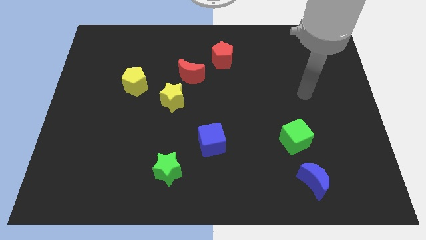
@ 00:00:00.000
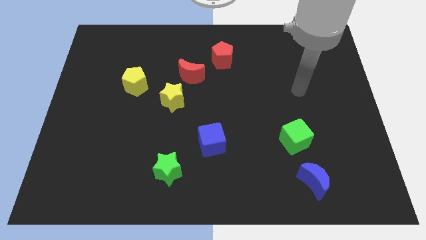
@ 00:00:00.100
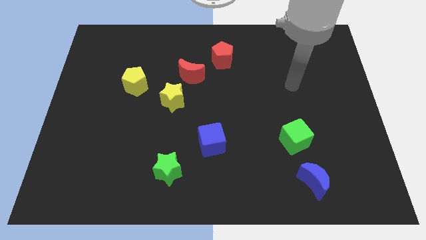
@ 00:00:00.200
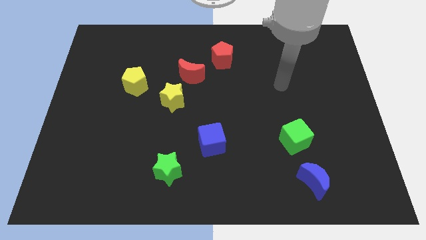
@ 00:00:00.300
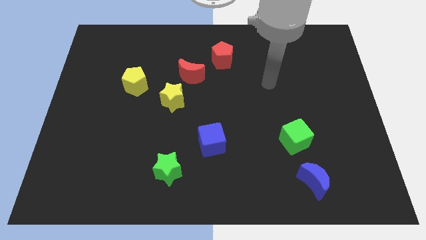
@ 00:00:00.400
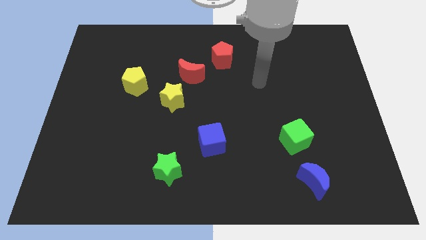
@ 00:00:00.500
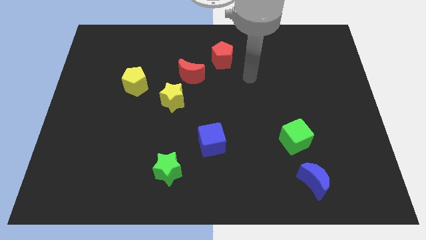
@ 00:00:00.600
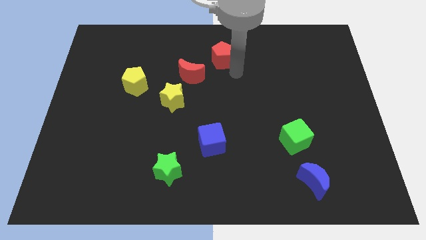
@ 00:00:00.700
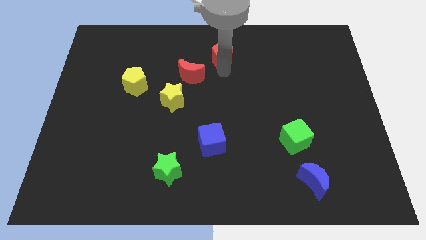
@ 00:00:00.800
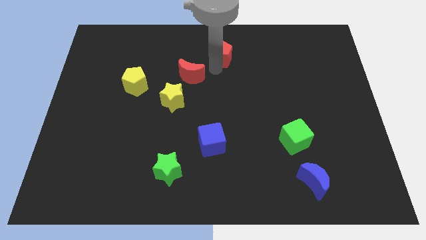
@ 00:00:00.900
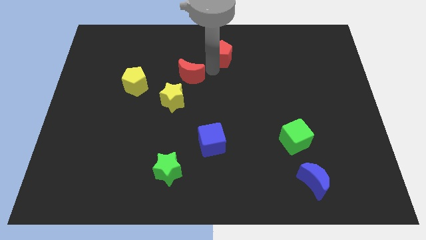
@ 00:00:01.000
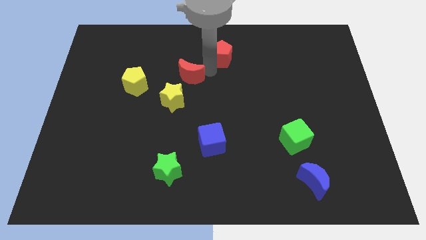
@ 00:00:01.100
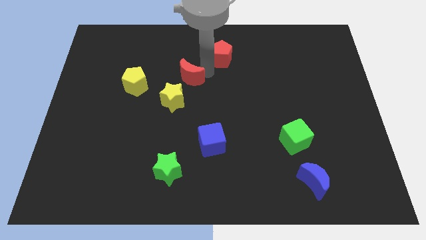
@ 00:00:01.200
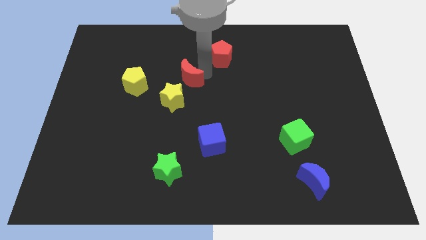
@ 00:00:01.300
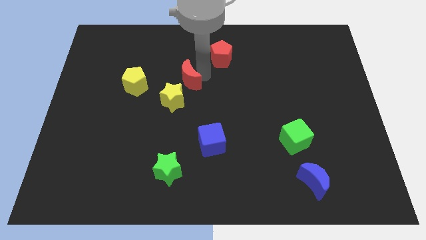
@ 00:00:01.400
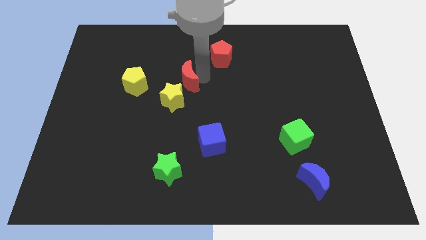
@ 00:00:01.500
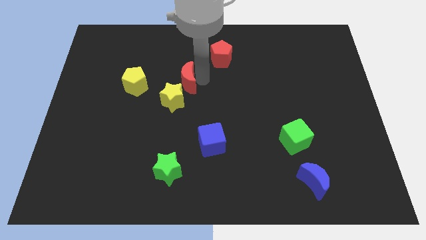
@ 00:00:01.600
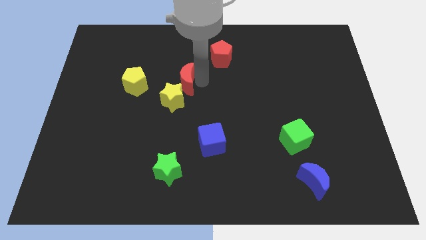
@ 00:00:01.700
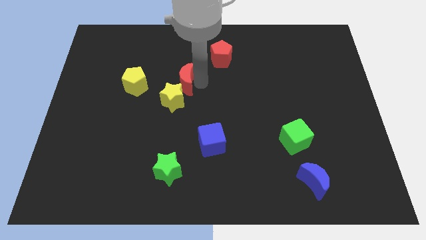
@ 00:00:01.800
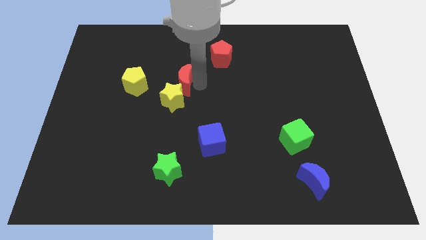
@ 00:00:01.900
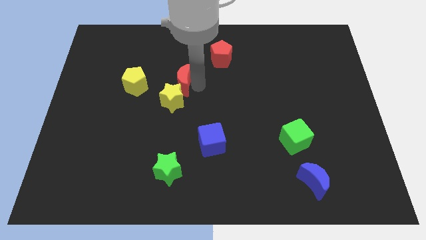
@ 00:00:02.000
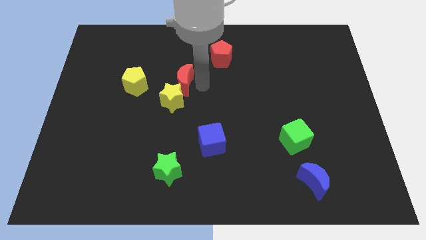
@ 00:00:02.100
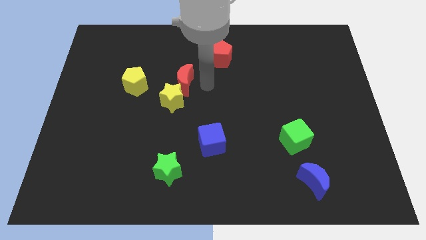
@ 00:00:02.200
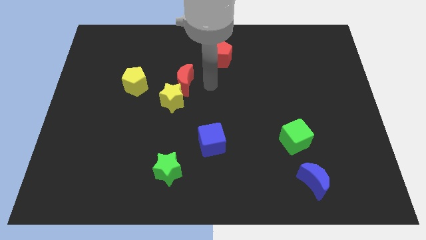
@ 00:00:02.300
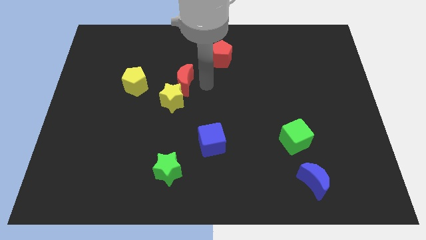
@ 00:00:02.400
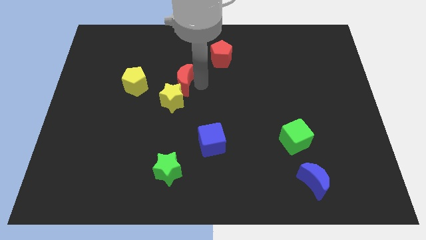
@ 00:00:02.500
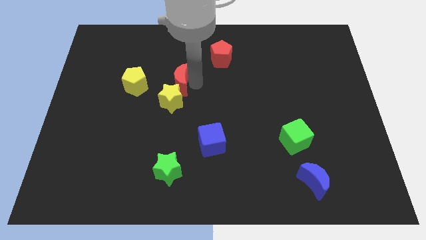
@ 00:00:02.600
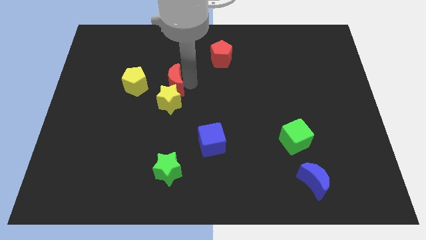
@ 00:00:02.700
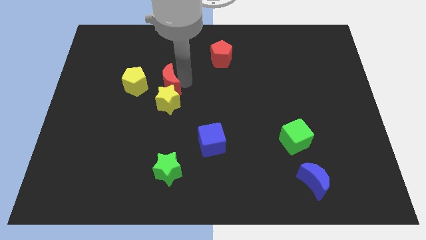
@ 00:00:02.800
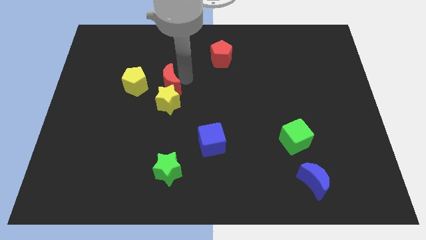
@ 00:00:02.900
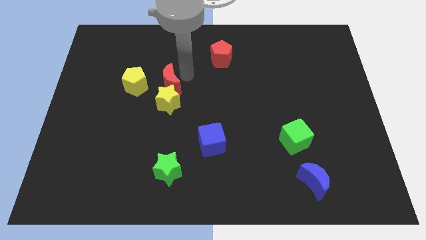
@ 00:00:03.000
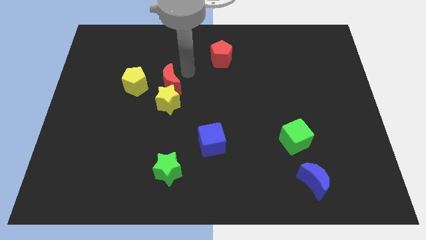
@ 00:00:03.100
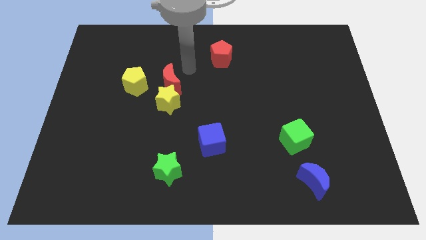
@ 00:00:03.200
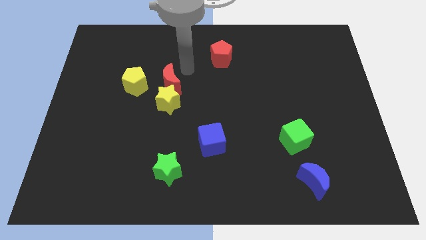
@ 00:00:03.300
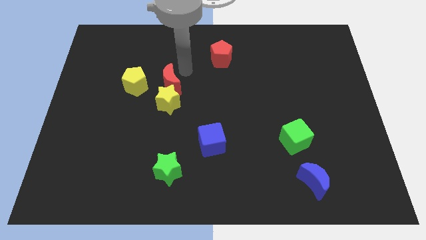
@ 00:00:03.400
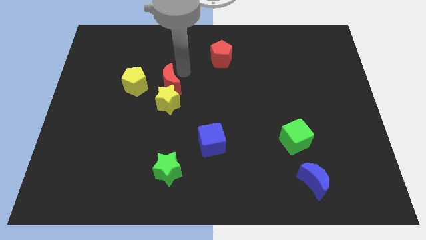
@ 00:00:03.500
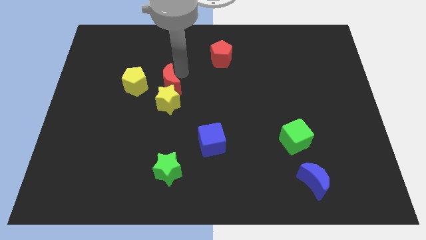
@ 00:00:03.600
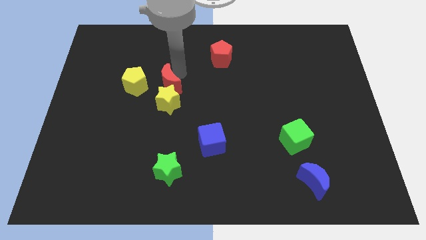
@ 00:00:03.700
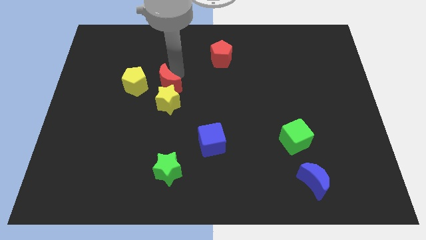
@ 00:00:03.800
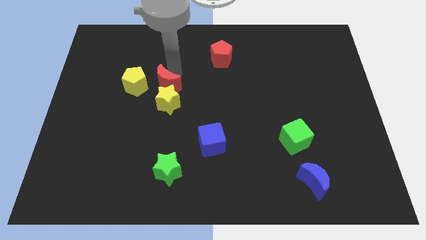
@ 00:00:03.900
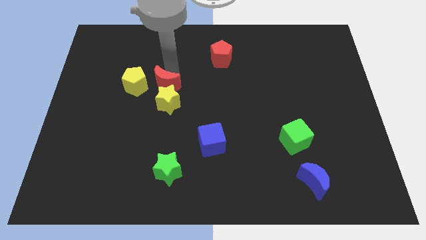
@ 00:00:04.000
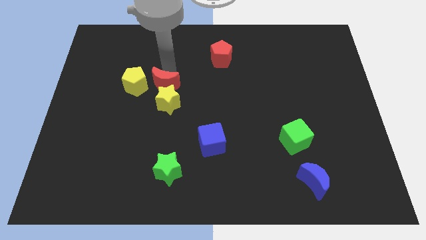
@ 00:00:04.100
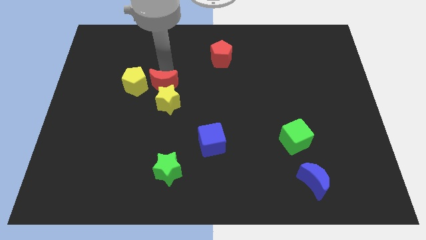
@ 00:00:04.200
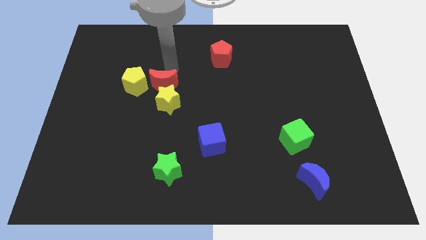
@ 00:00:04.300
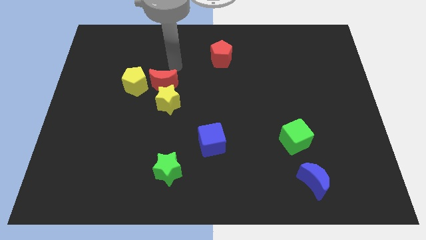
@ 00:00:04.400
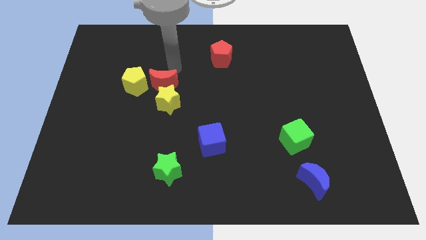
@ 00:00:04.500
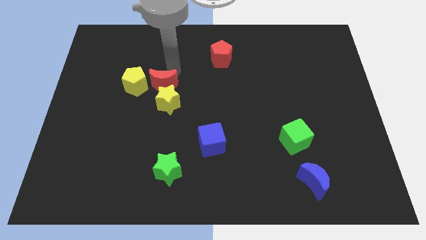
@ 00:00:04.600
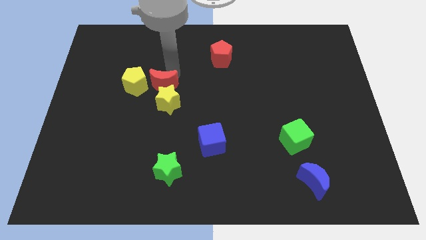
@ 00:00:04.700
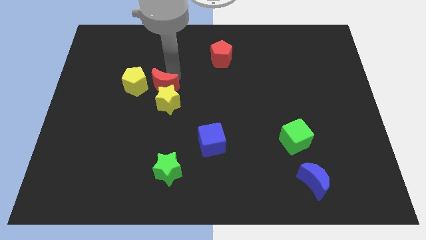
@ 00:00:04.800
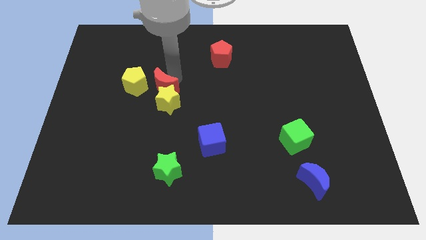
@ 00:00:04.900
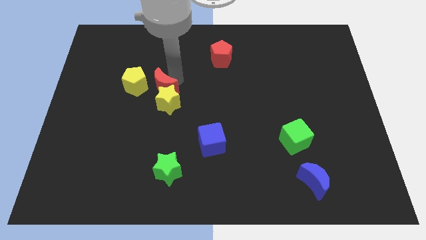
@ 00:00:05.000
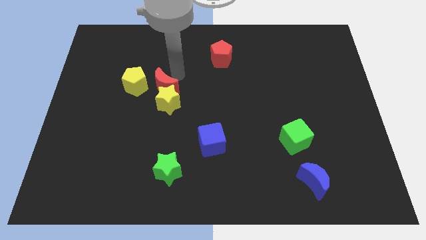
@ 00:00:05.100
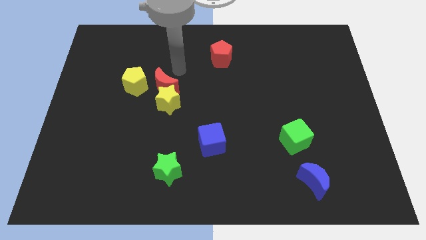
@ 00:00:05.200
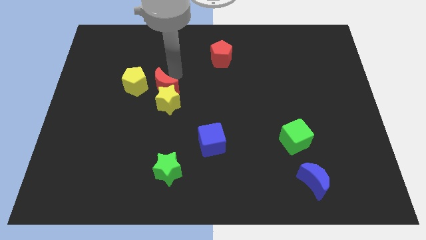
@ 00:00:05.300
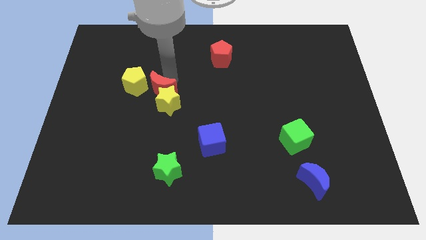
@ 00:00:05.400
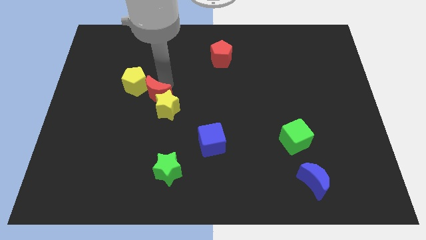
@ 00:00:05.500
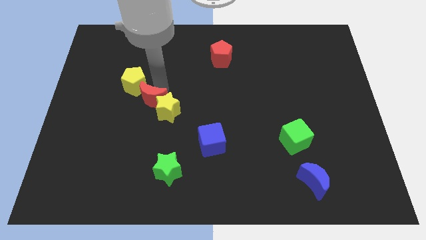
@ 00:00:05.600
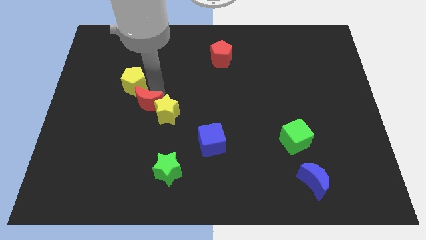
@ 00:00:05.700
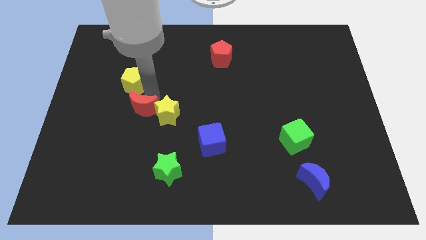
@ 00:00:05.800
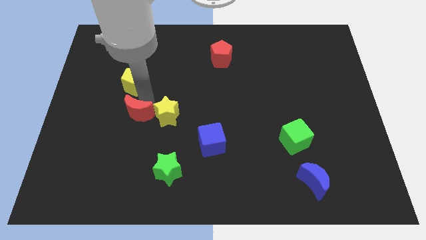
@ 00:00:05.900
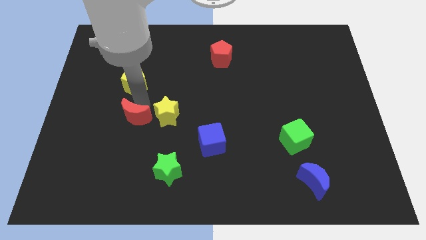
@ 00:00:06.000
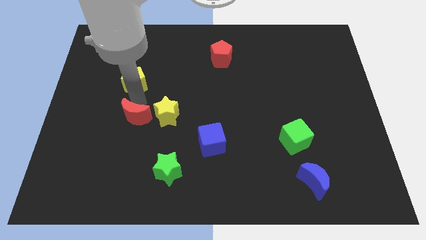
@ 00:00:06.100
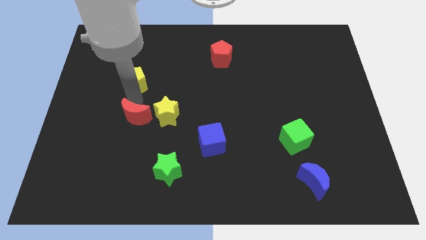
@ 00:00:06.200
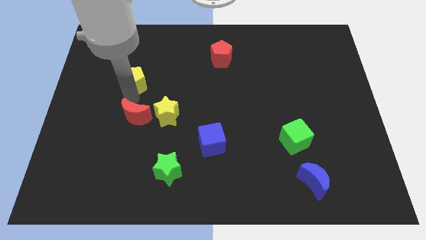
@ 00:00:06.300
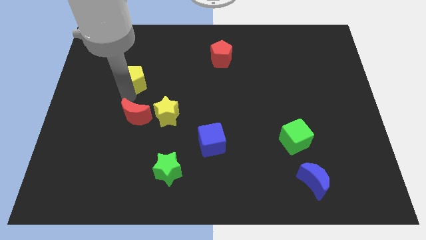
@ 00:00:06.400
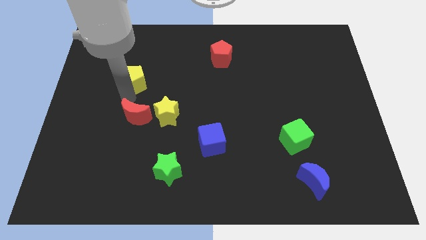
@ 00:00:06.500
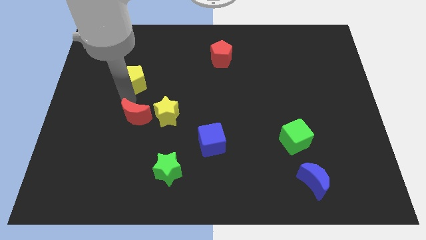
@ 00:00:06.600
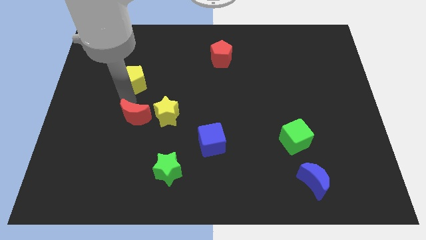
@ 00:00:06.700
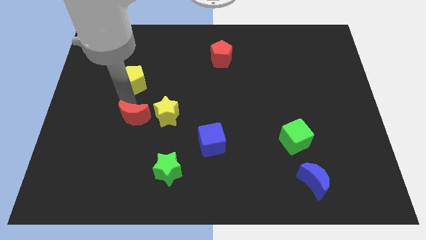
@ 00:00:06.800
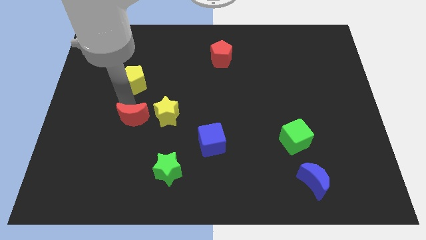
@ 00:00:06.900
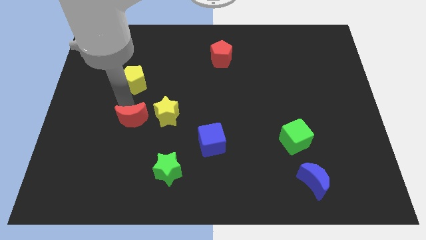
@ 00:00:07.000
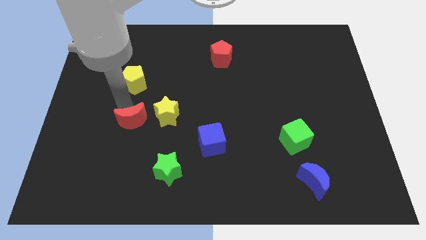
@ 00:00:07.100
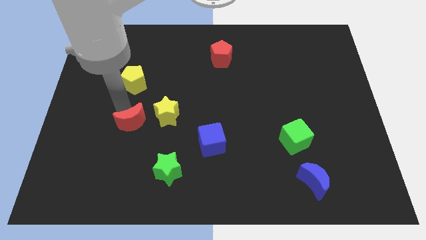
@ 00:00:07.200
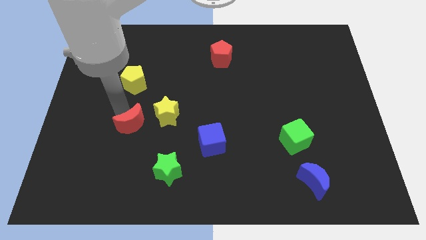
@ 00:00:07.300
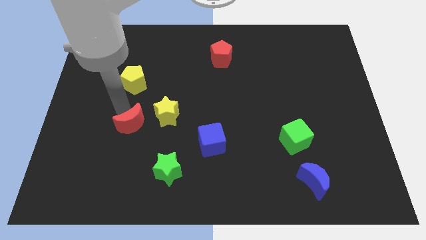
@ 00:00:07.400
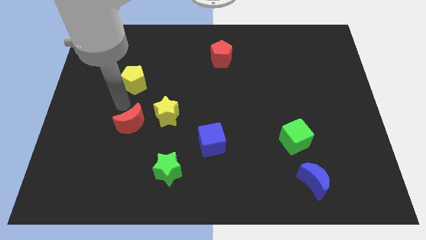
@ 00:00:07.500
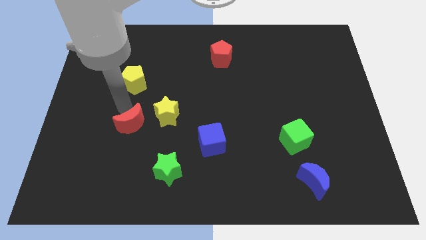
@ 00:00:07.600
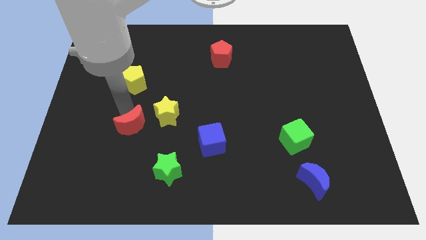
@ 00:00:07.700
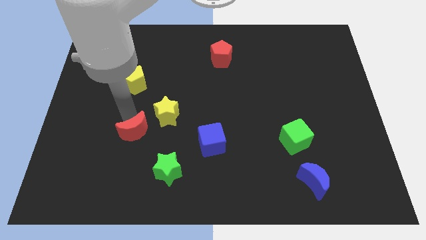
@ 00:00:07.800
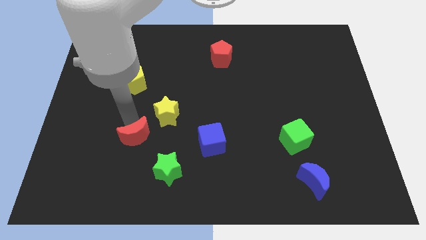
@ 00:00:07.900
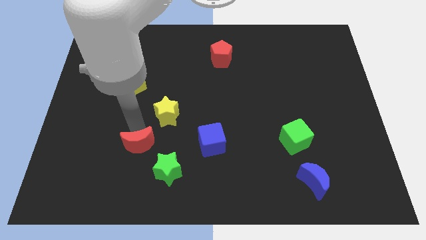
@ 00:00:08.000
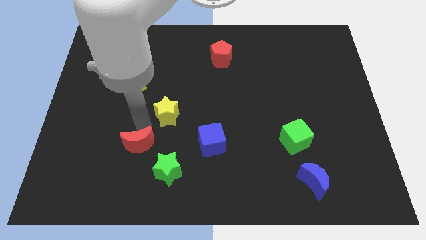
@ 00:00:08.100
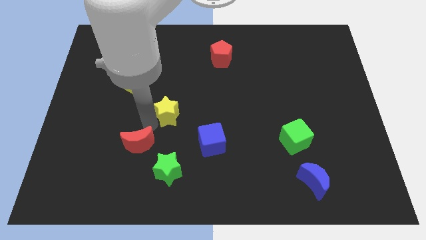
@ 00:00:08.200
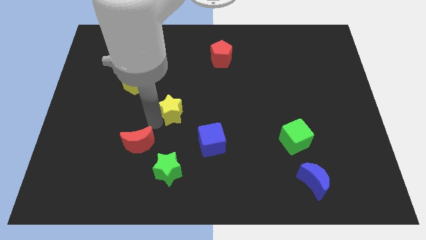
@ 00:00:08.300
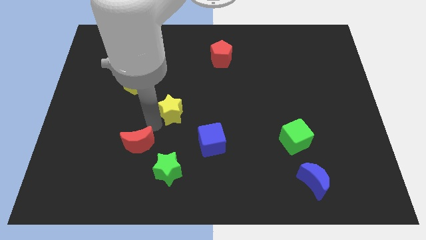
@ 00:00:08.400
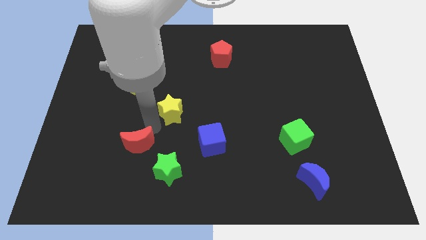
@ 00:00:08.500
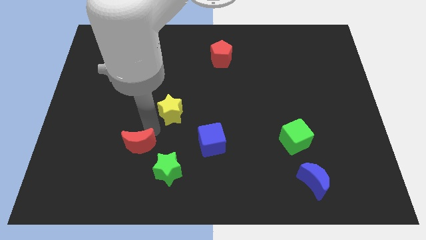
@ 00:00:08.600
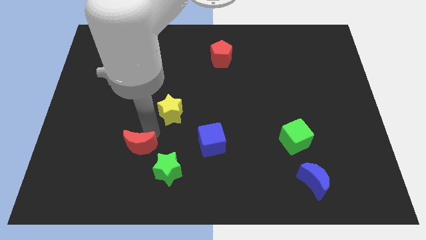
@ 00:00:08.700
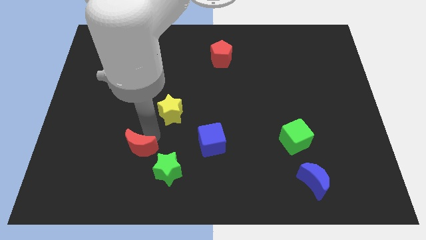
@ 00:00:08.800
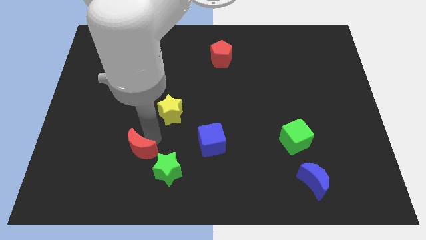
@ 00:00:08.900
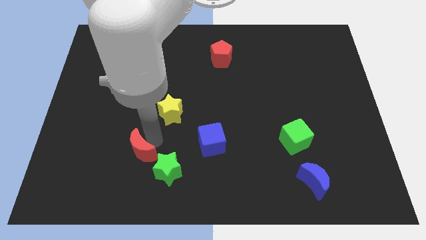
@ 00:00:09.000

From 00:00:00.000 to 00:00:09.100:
move the red moon left of the green star
